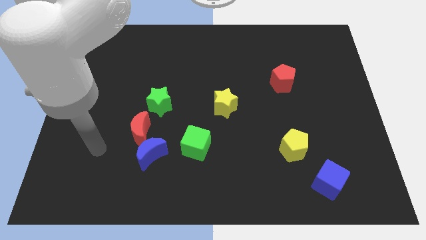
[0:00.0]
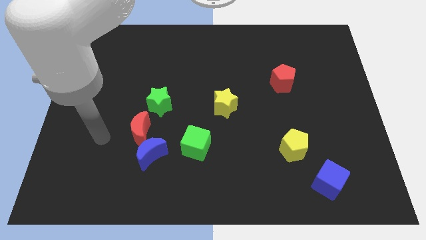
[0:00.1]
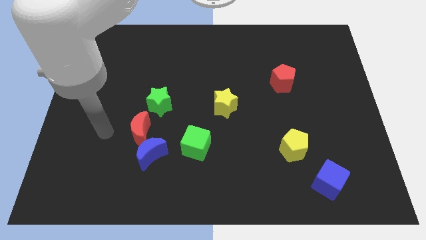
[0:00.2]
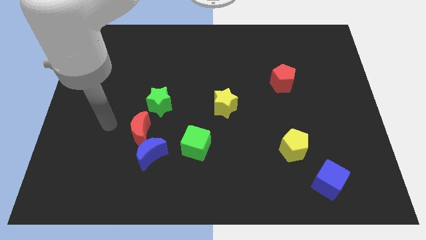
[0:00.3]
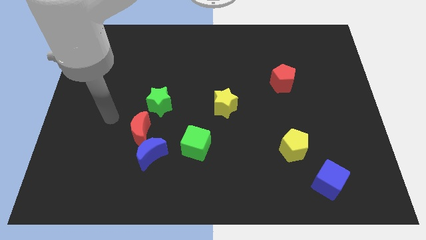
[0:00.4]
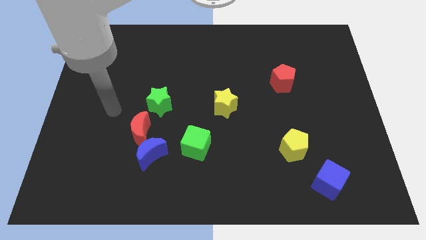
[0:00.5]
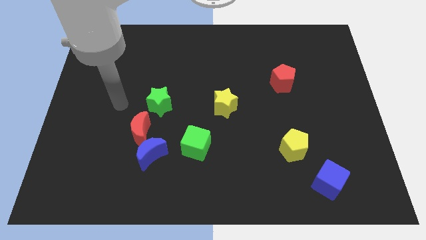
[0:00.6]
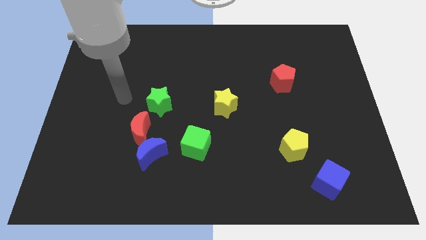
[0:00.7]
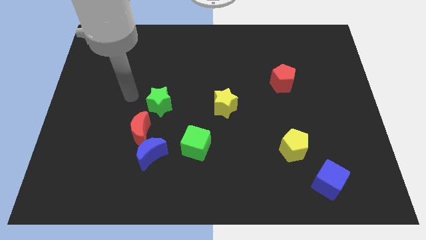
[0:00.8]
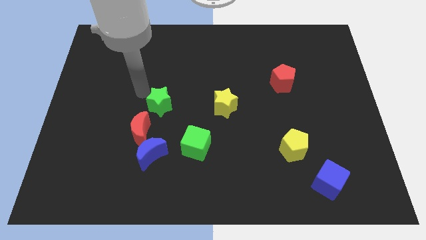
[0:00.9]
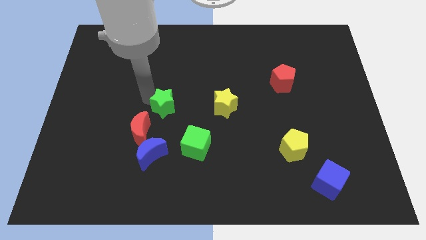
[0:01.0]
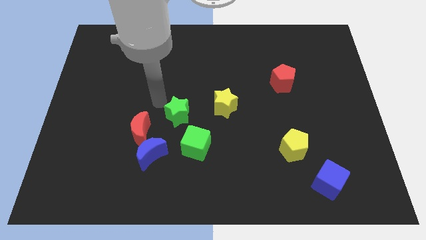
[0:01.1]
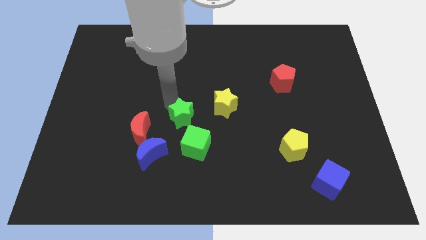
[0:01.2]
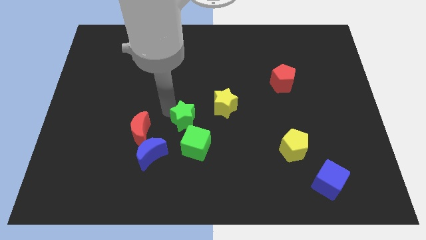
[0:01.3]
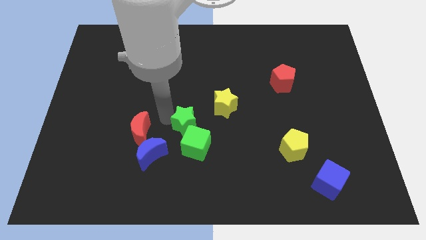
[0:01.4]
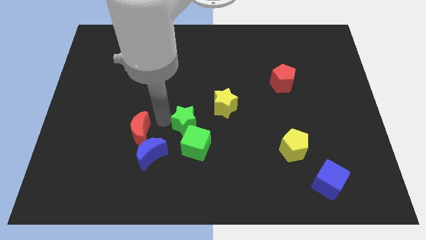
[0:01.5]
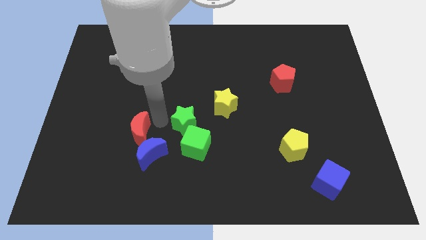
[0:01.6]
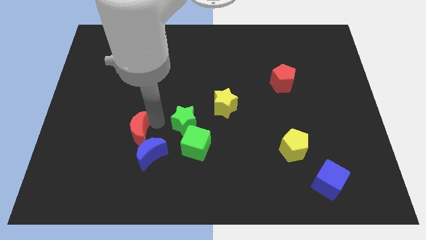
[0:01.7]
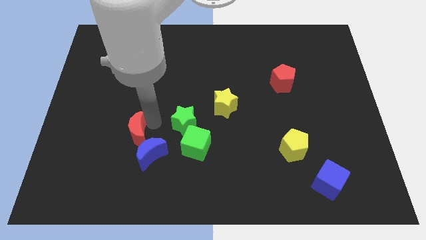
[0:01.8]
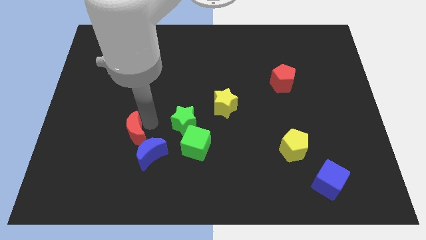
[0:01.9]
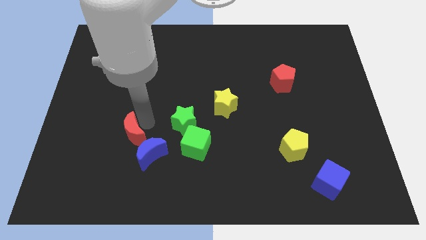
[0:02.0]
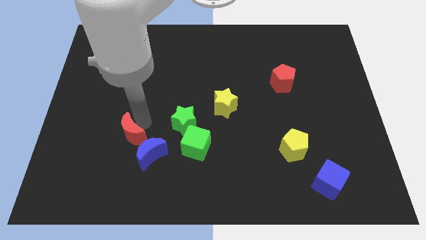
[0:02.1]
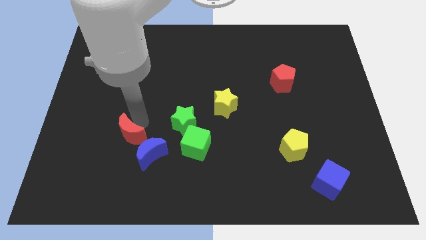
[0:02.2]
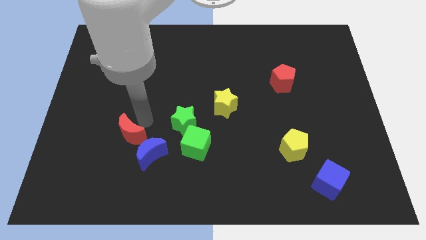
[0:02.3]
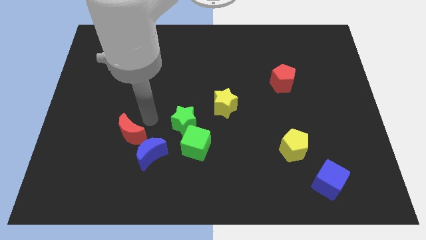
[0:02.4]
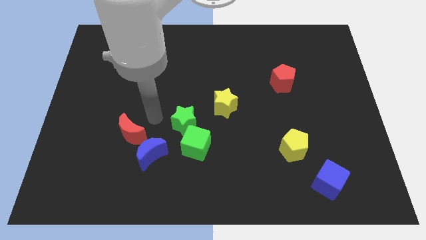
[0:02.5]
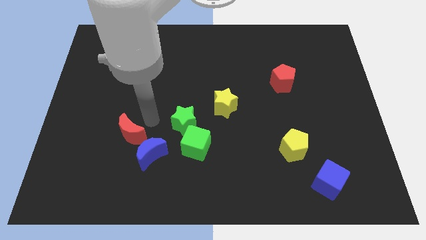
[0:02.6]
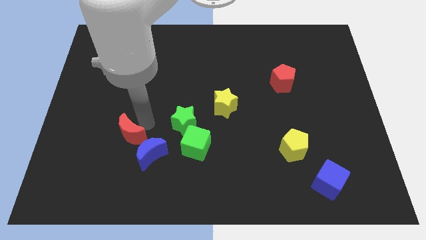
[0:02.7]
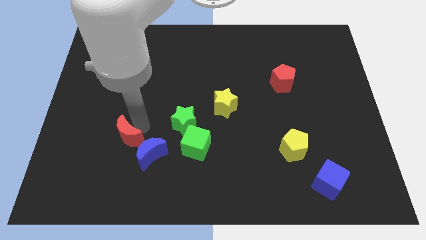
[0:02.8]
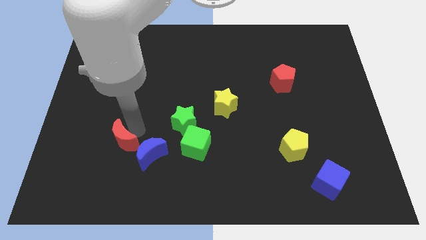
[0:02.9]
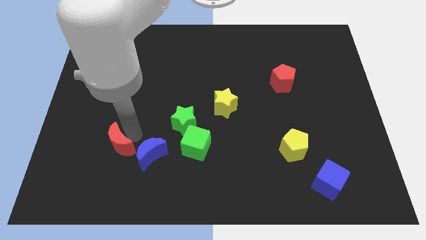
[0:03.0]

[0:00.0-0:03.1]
move the red moon away from the blue moon and green star

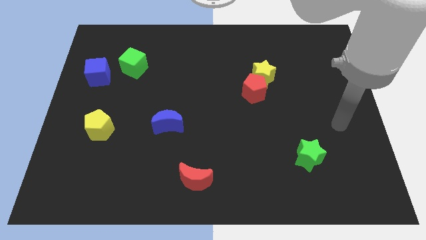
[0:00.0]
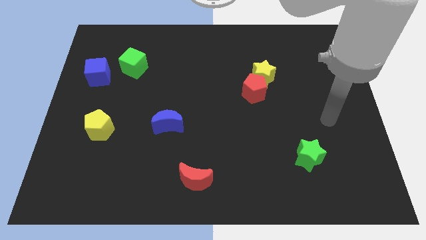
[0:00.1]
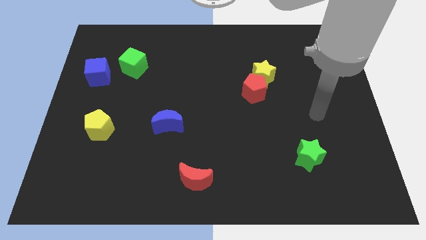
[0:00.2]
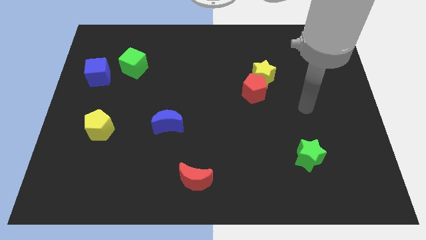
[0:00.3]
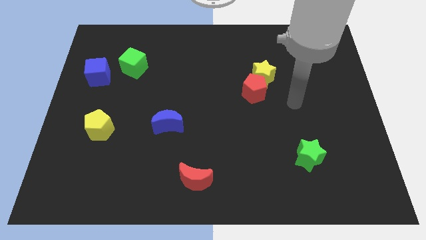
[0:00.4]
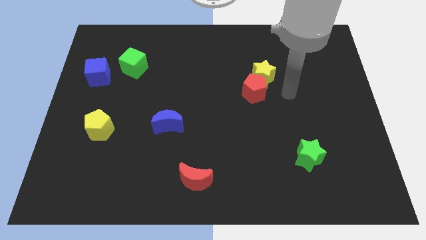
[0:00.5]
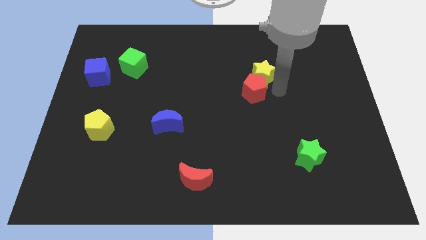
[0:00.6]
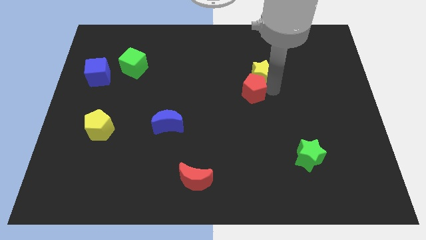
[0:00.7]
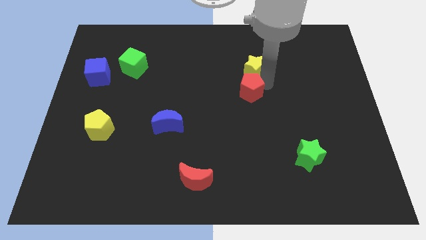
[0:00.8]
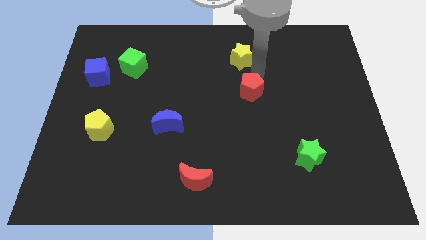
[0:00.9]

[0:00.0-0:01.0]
separate the red pentagon from the yellow star

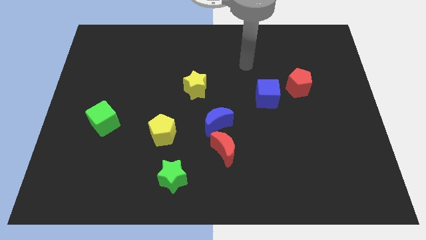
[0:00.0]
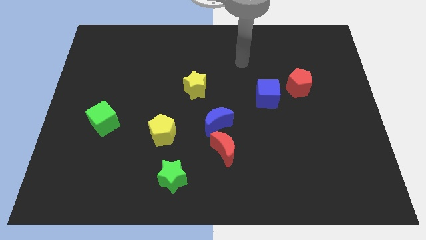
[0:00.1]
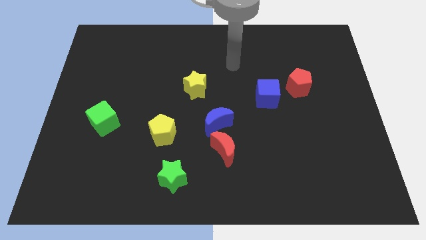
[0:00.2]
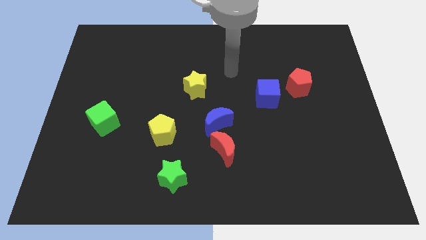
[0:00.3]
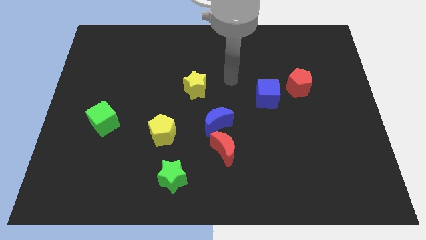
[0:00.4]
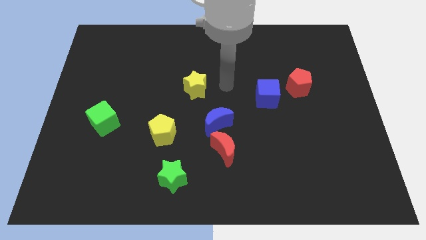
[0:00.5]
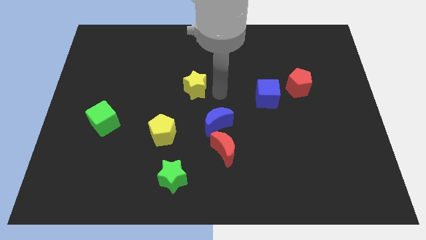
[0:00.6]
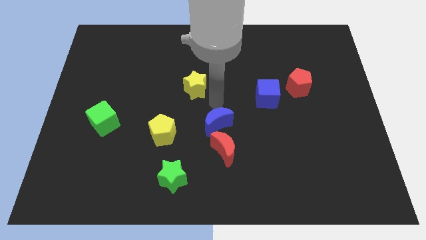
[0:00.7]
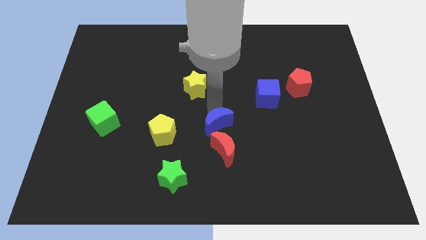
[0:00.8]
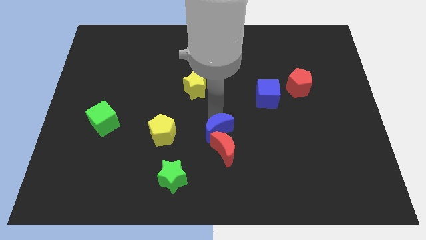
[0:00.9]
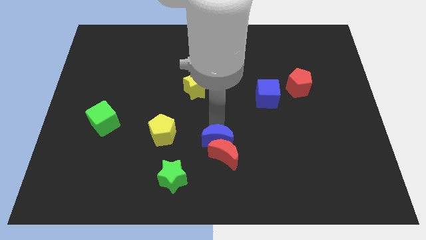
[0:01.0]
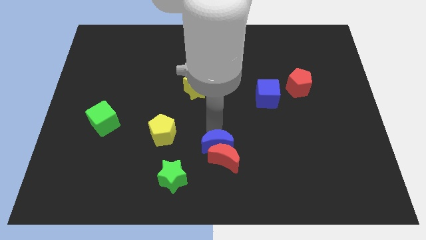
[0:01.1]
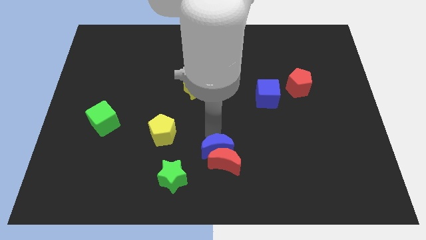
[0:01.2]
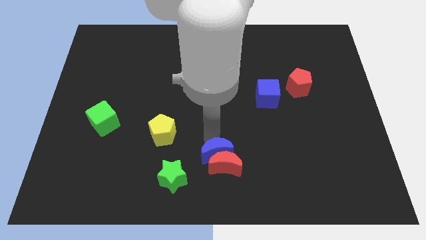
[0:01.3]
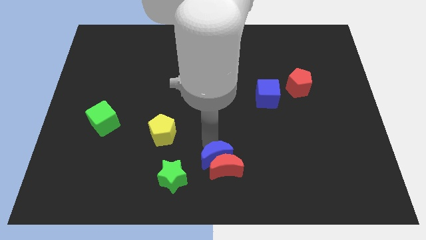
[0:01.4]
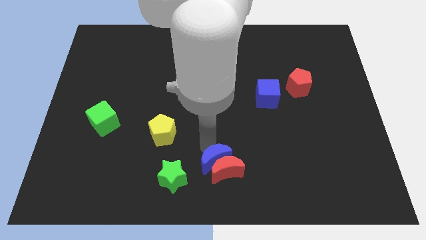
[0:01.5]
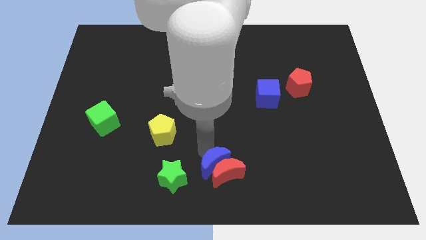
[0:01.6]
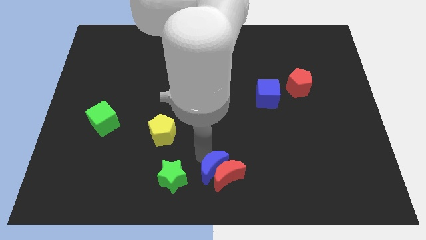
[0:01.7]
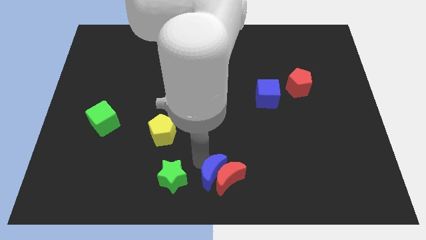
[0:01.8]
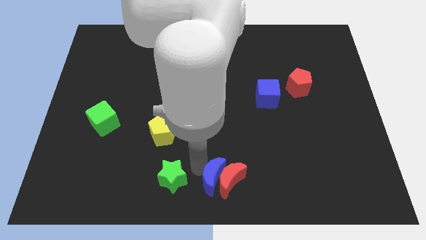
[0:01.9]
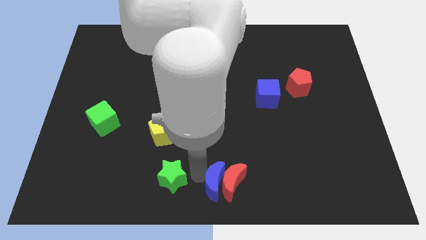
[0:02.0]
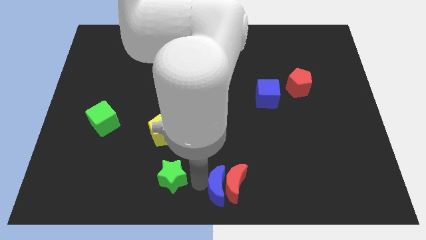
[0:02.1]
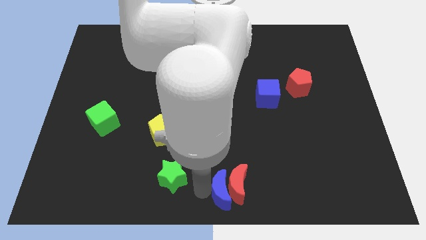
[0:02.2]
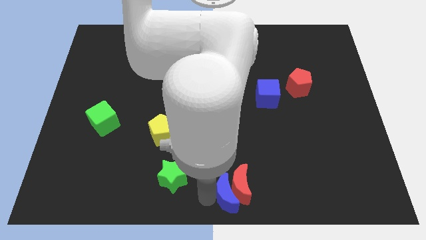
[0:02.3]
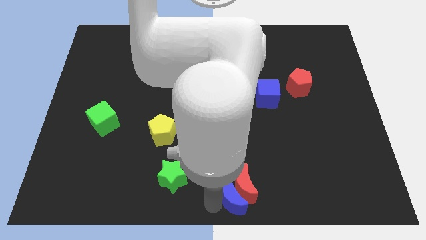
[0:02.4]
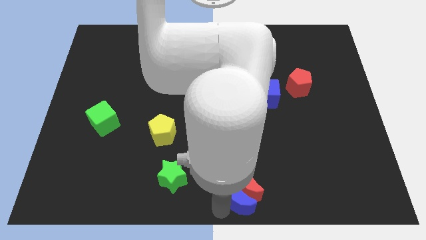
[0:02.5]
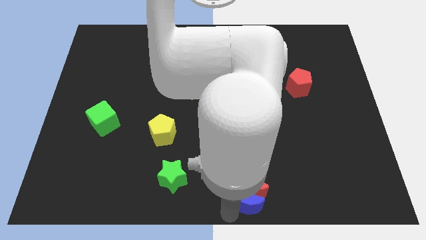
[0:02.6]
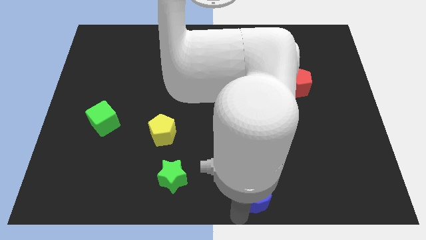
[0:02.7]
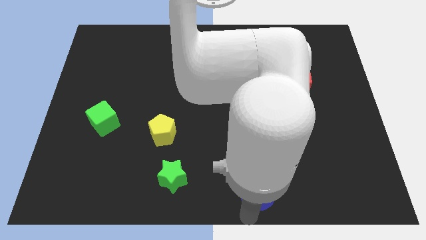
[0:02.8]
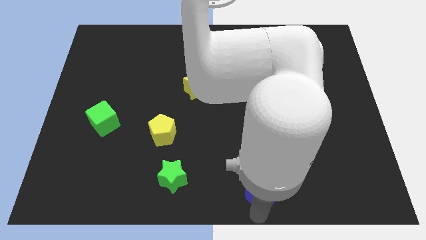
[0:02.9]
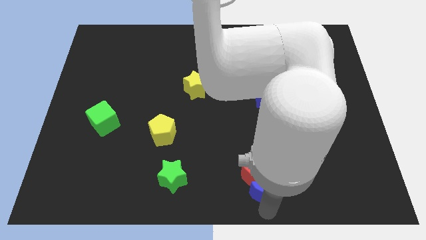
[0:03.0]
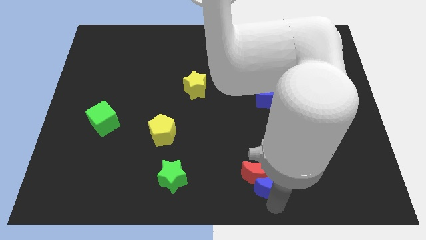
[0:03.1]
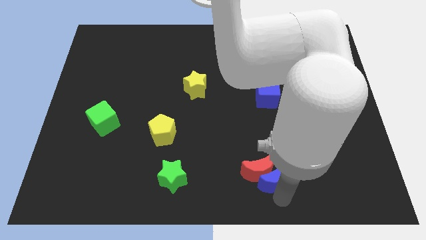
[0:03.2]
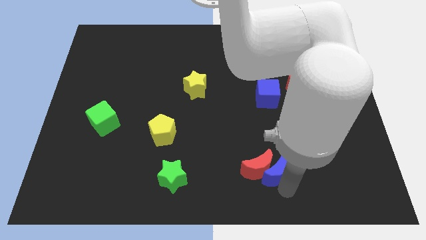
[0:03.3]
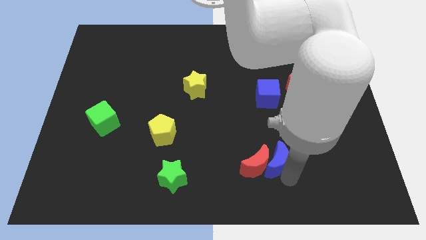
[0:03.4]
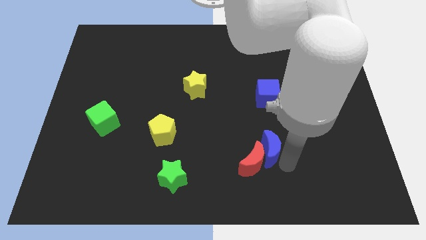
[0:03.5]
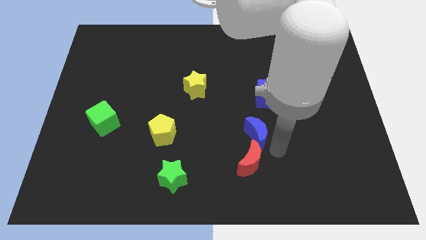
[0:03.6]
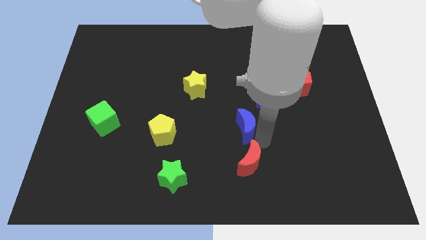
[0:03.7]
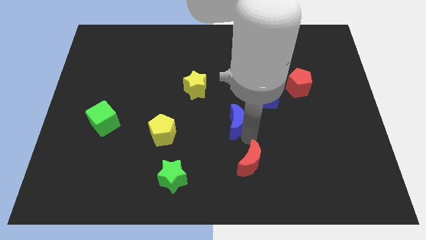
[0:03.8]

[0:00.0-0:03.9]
move the red moon away from the blue moon

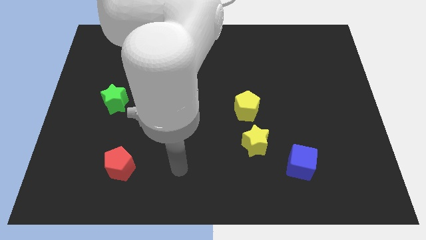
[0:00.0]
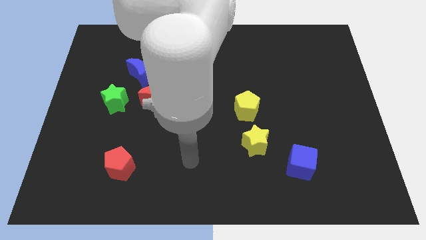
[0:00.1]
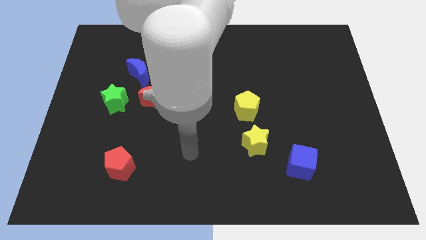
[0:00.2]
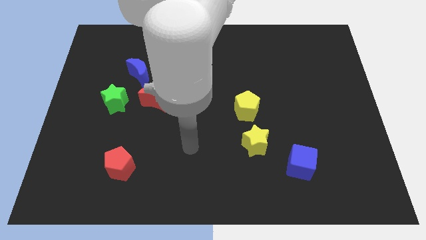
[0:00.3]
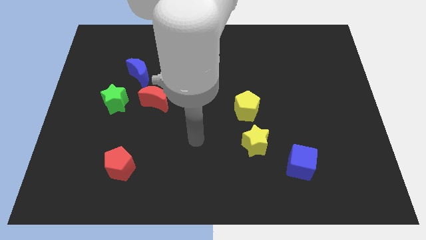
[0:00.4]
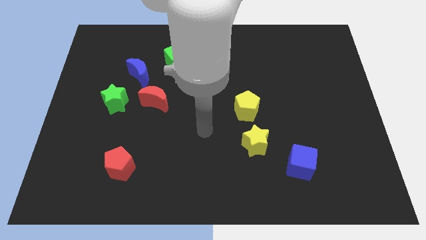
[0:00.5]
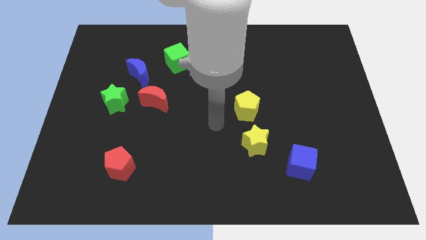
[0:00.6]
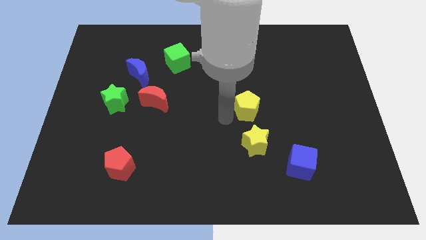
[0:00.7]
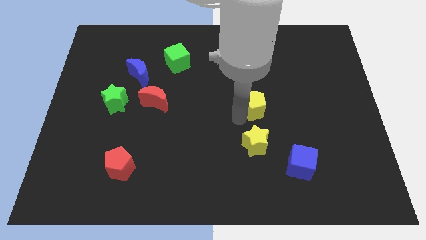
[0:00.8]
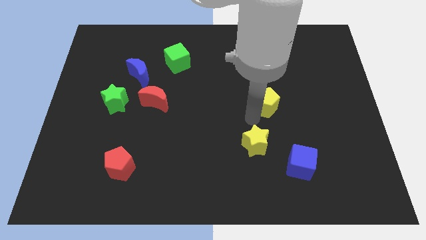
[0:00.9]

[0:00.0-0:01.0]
move the yellow star away from the yellow pentagon

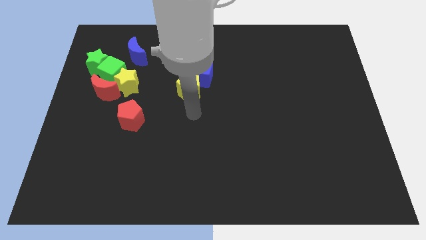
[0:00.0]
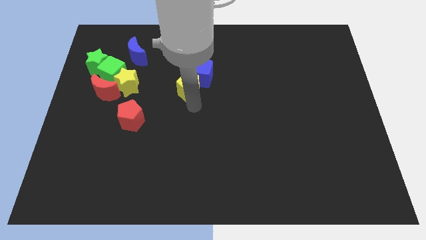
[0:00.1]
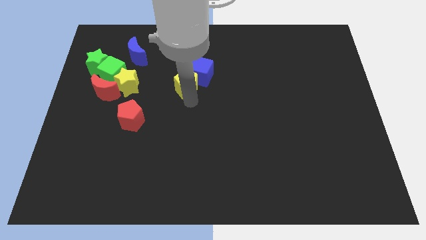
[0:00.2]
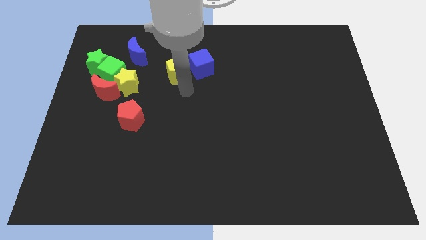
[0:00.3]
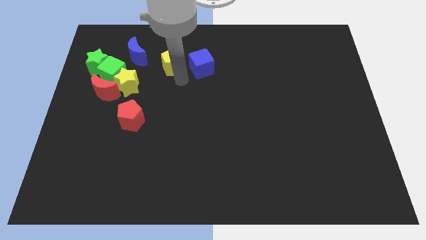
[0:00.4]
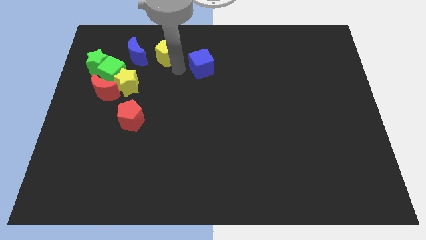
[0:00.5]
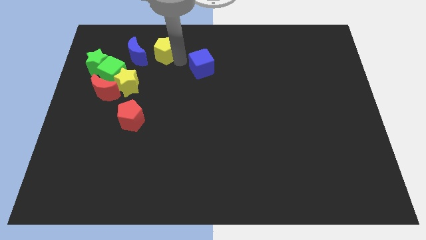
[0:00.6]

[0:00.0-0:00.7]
move the blue cube away from the yellow pentagon
